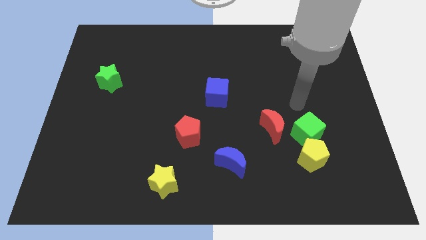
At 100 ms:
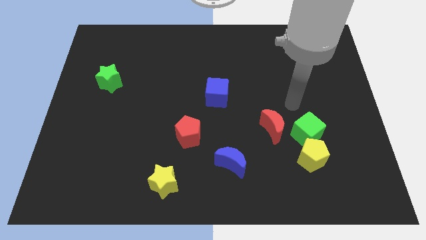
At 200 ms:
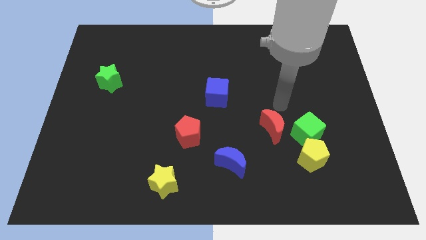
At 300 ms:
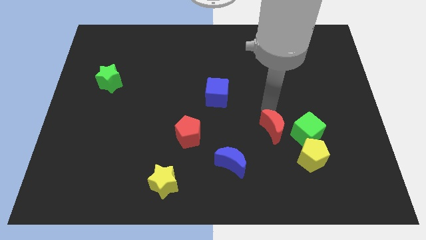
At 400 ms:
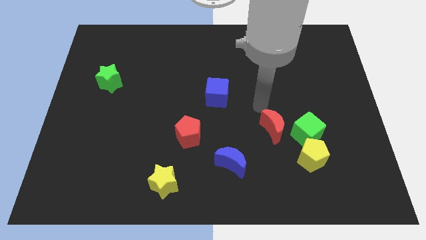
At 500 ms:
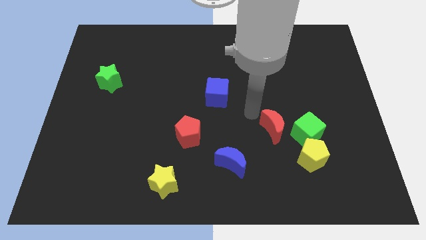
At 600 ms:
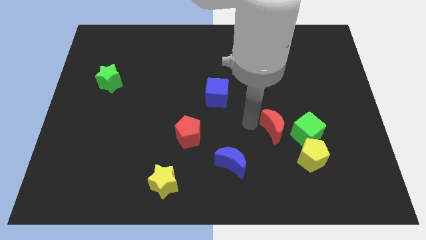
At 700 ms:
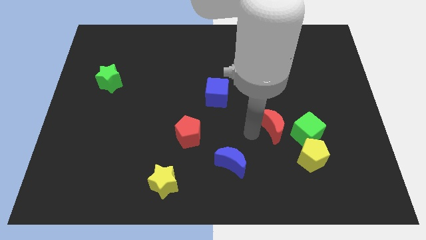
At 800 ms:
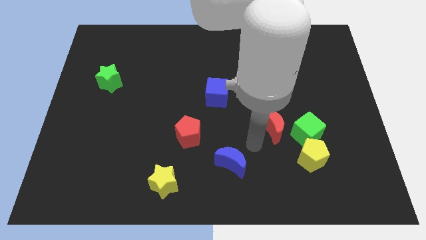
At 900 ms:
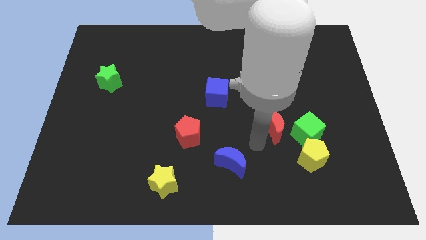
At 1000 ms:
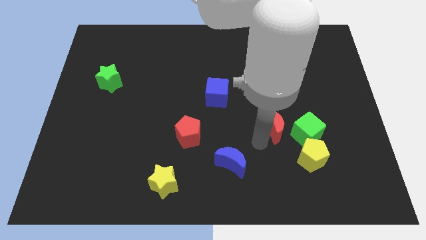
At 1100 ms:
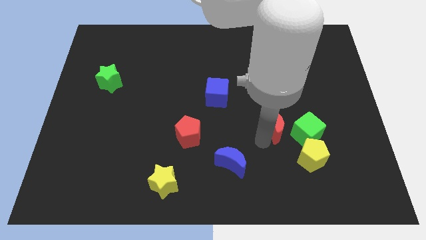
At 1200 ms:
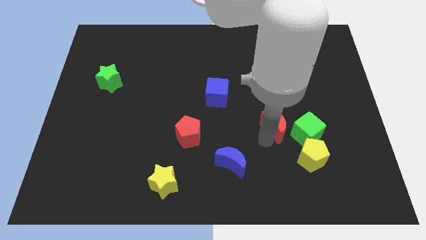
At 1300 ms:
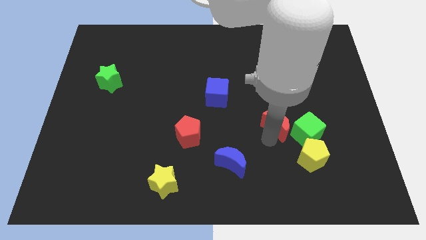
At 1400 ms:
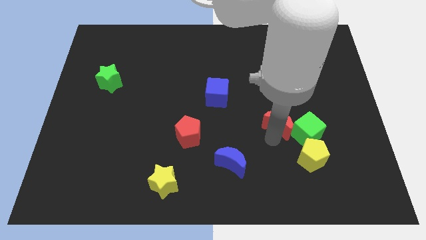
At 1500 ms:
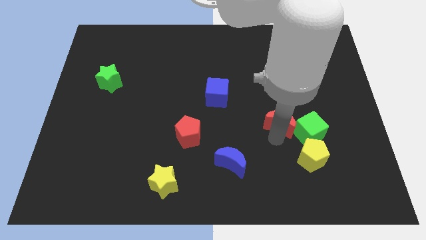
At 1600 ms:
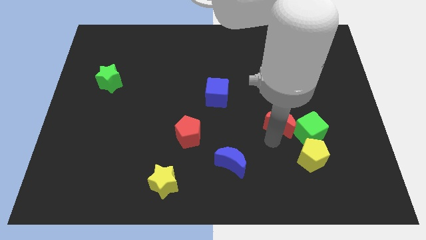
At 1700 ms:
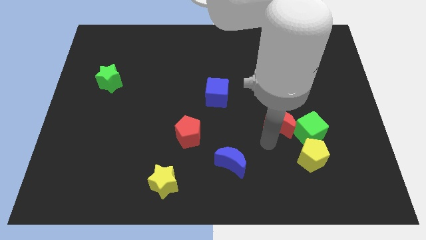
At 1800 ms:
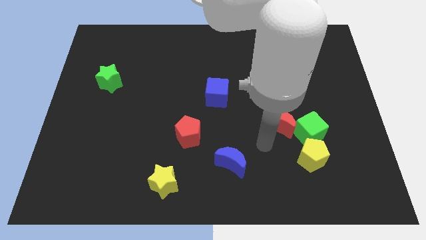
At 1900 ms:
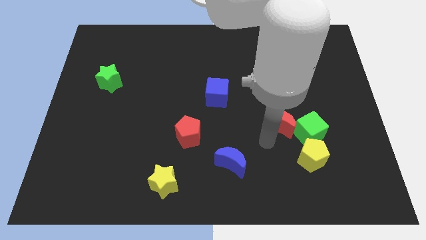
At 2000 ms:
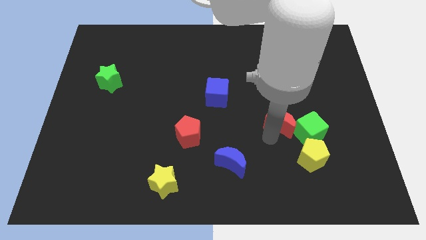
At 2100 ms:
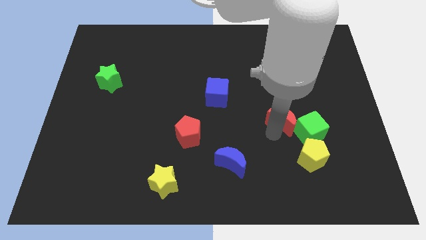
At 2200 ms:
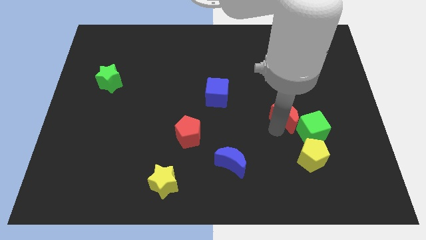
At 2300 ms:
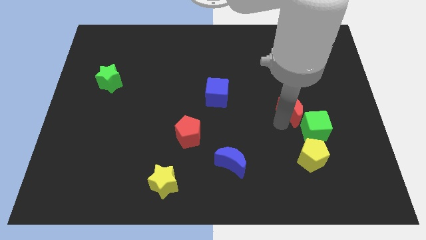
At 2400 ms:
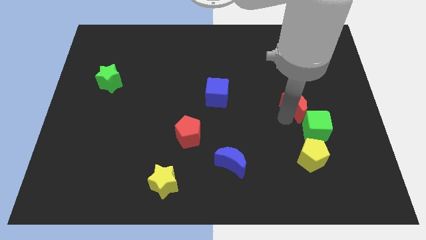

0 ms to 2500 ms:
slide the red moon diagonally up and right somewhat

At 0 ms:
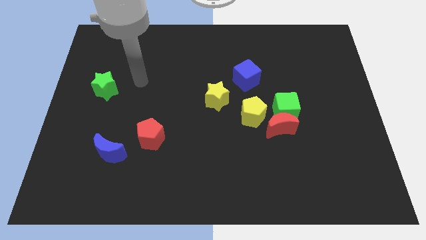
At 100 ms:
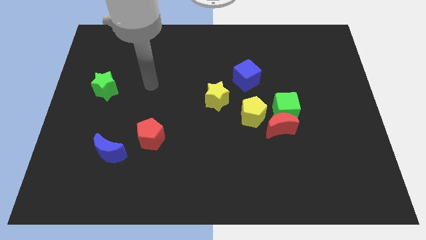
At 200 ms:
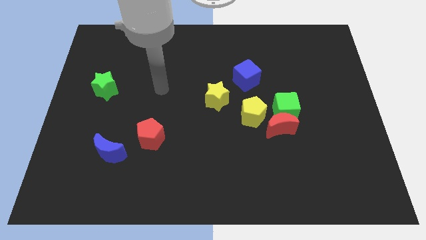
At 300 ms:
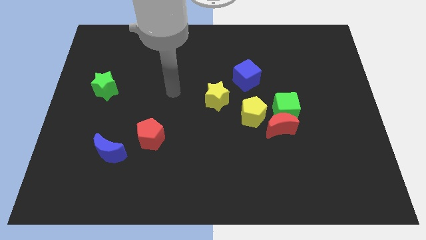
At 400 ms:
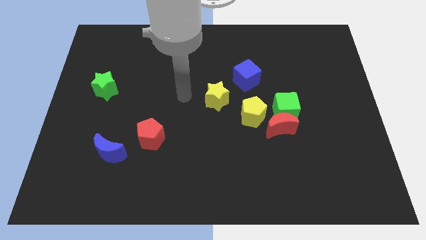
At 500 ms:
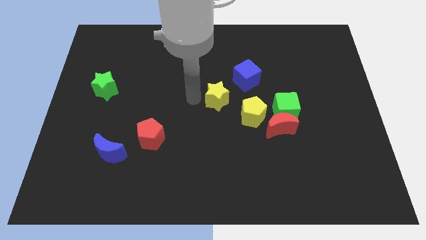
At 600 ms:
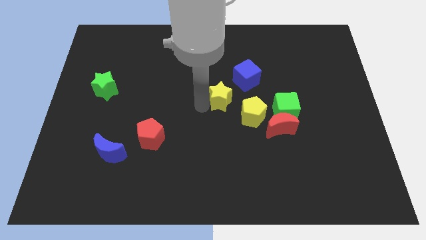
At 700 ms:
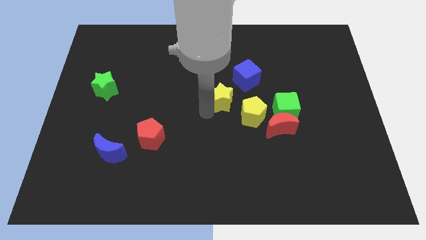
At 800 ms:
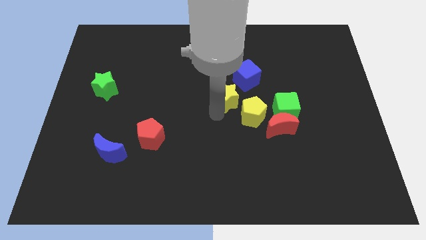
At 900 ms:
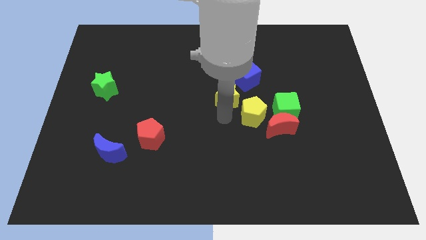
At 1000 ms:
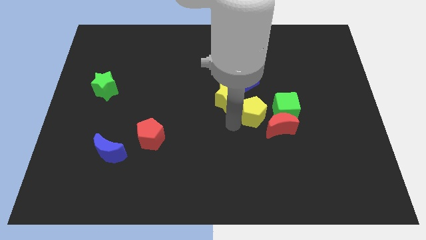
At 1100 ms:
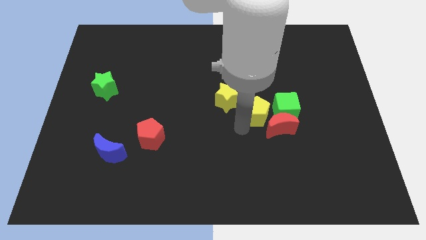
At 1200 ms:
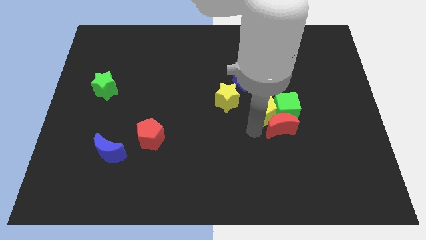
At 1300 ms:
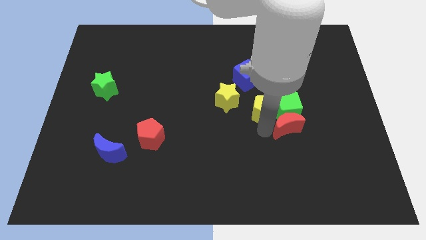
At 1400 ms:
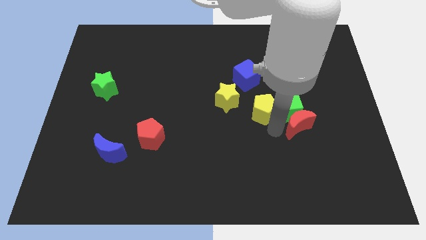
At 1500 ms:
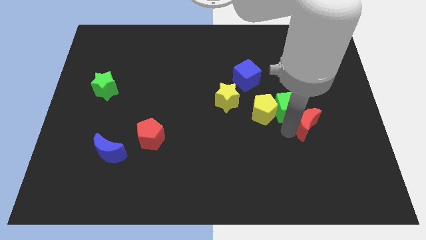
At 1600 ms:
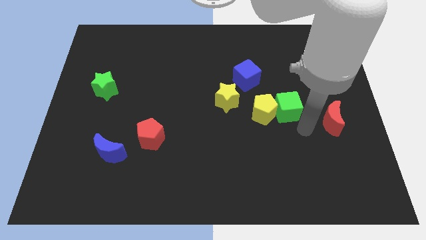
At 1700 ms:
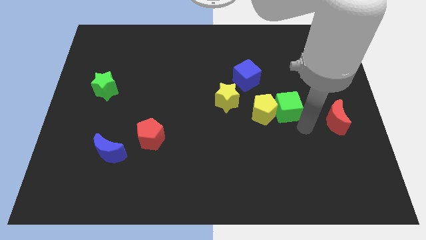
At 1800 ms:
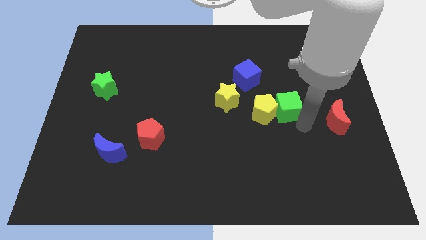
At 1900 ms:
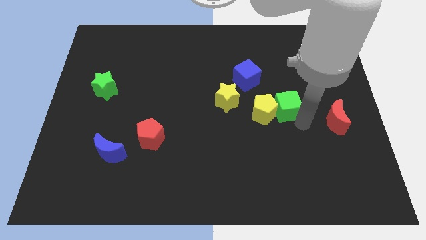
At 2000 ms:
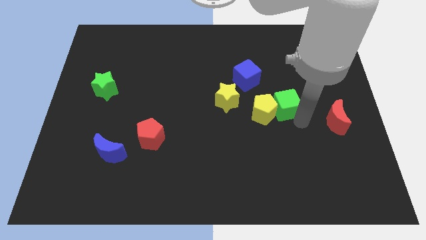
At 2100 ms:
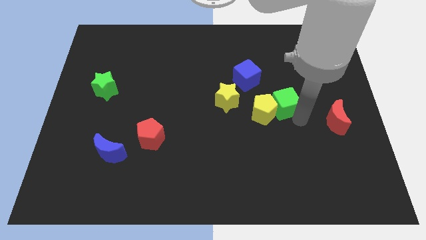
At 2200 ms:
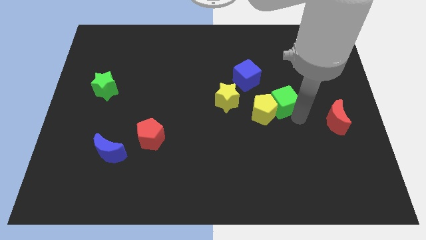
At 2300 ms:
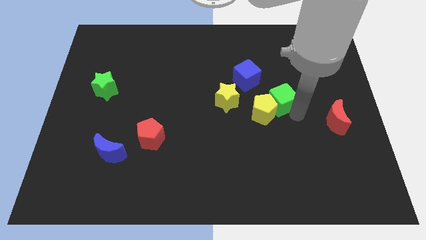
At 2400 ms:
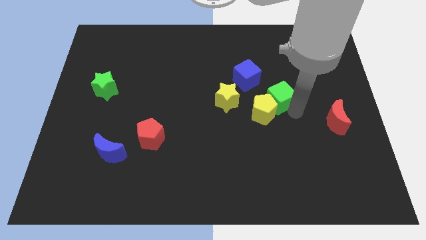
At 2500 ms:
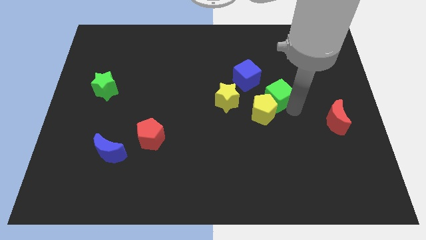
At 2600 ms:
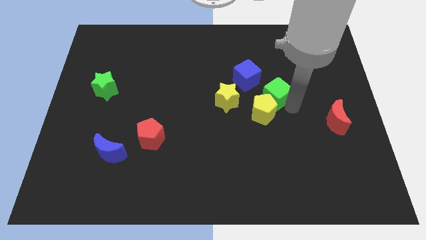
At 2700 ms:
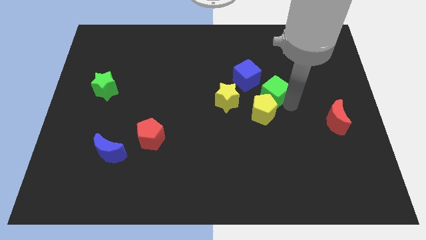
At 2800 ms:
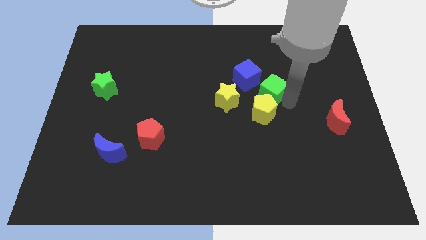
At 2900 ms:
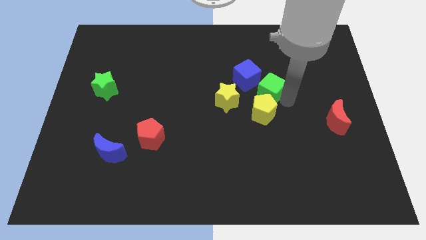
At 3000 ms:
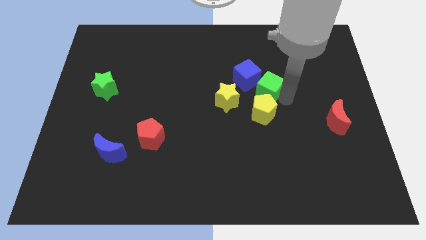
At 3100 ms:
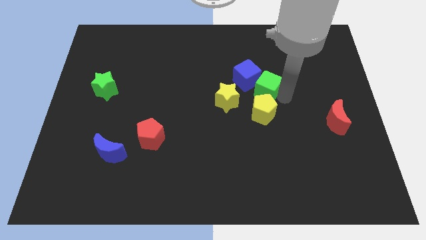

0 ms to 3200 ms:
slightly slide the green cube upwards and then to the left

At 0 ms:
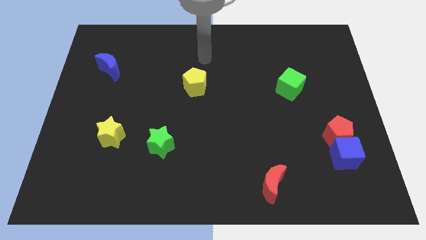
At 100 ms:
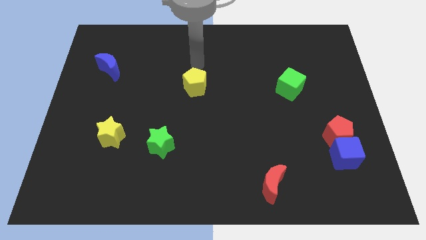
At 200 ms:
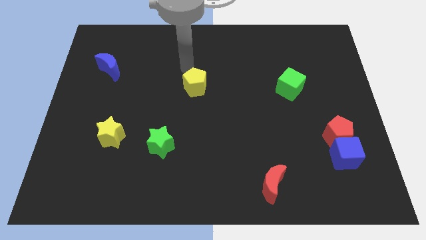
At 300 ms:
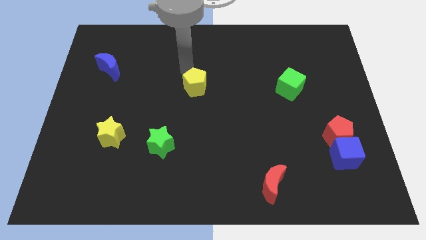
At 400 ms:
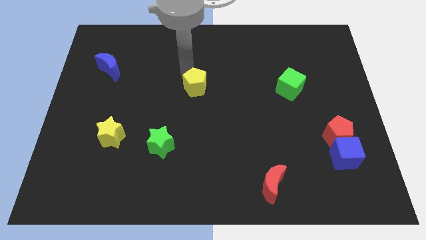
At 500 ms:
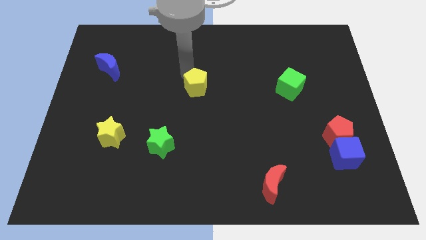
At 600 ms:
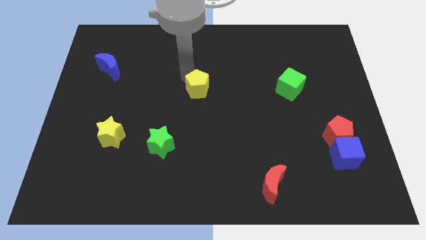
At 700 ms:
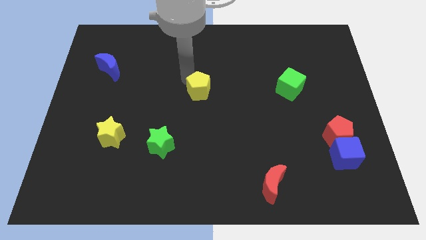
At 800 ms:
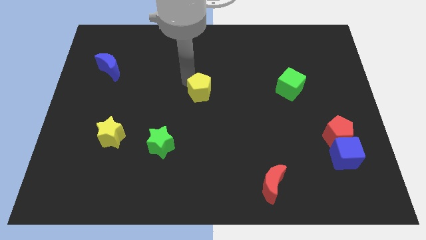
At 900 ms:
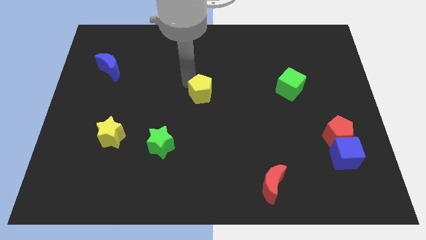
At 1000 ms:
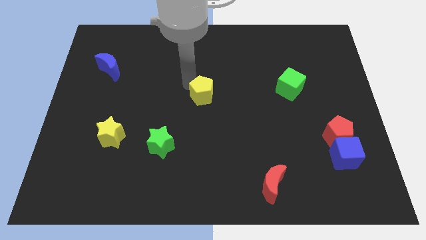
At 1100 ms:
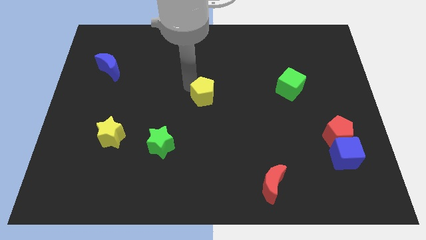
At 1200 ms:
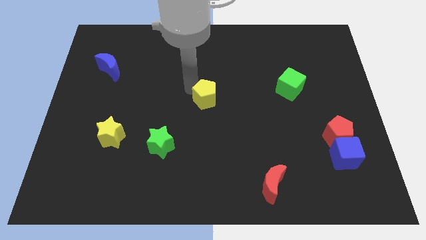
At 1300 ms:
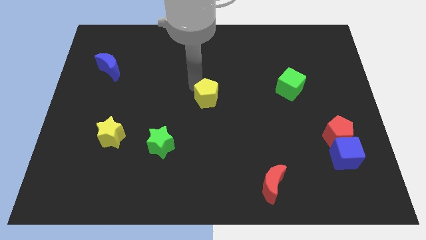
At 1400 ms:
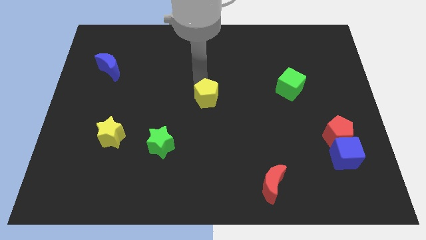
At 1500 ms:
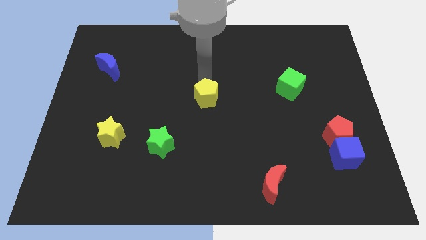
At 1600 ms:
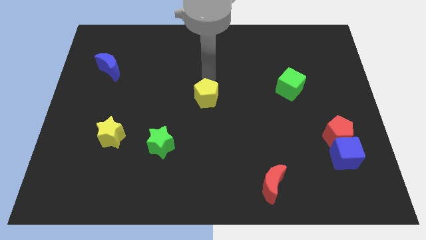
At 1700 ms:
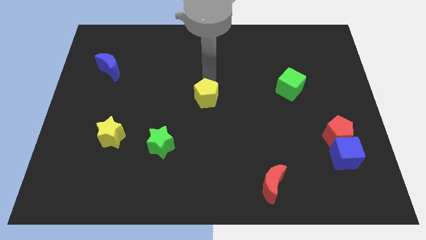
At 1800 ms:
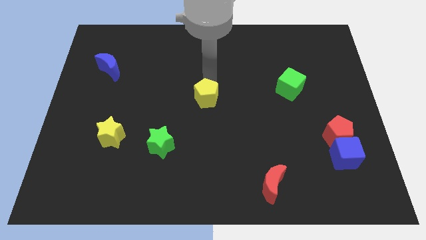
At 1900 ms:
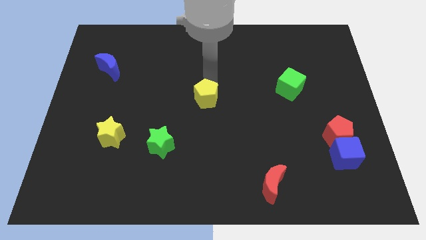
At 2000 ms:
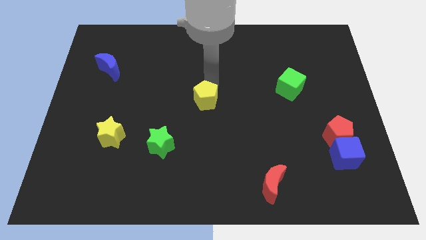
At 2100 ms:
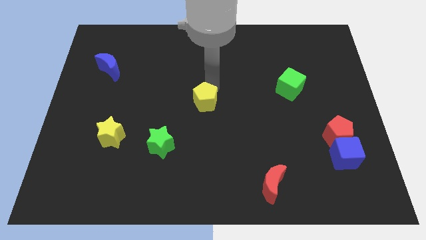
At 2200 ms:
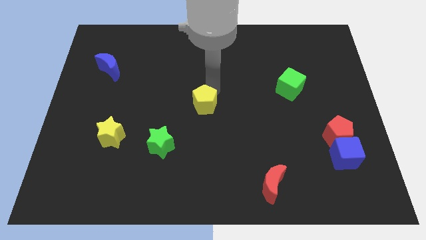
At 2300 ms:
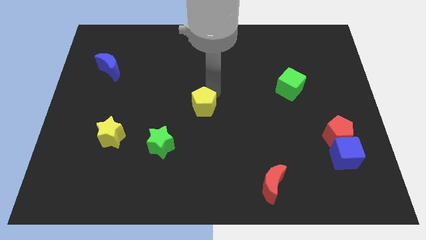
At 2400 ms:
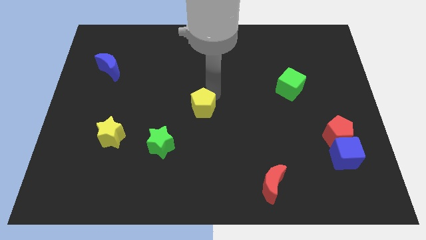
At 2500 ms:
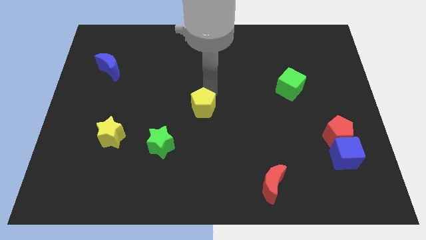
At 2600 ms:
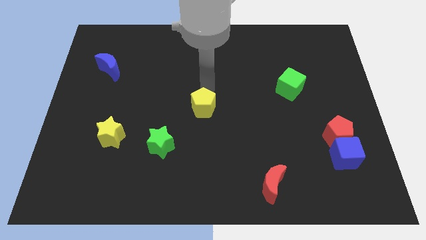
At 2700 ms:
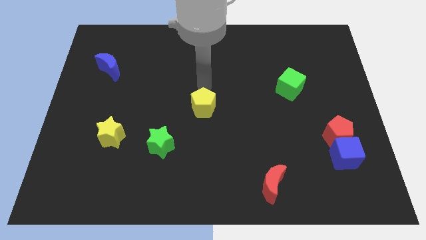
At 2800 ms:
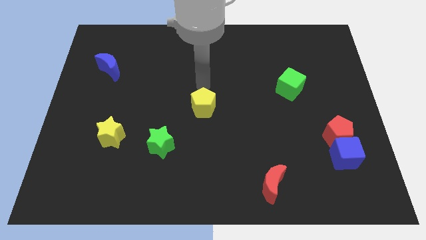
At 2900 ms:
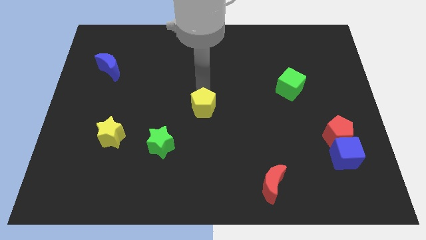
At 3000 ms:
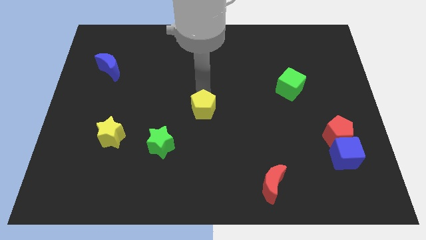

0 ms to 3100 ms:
slightly move the yellow pentagon downwards
